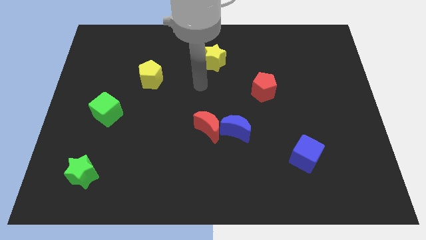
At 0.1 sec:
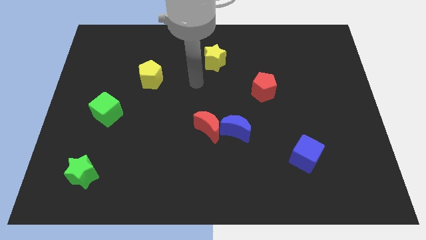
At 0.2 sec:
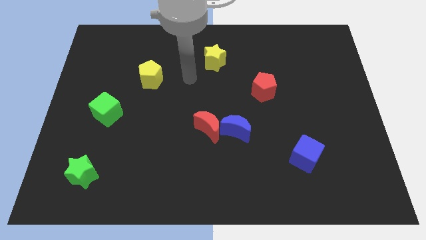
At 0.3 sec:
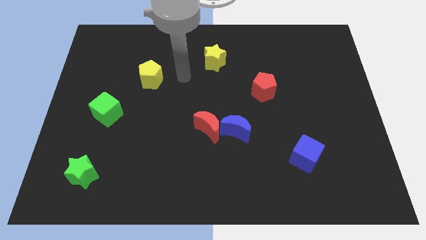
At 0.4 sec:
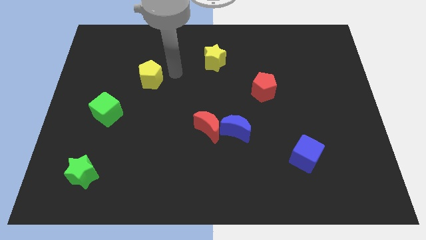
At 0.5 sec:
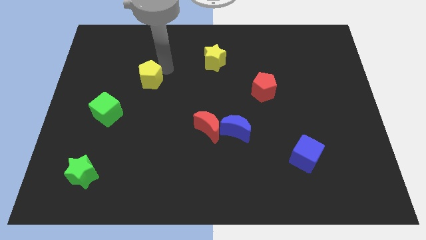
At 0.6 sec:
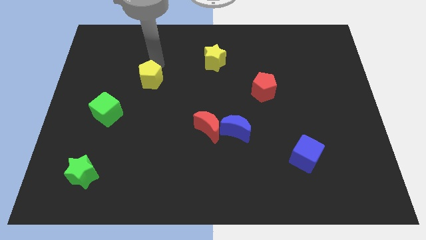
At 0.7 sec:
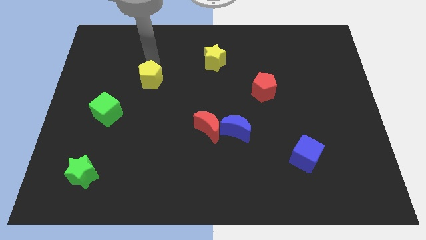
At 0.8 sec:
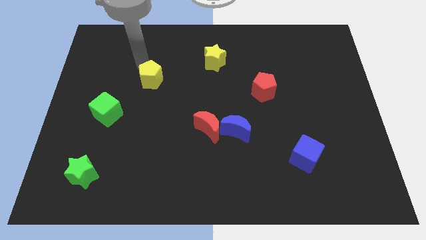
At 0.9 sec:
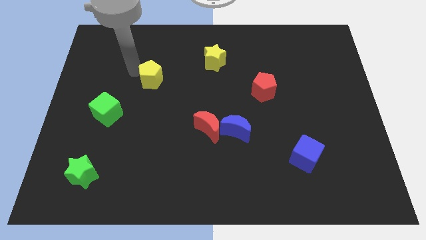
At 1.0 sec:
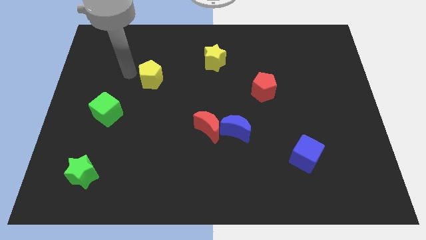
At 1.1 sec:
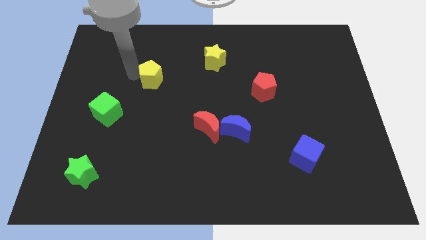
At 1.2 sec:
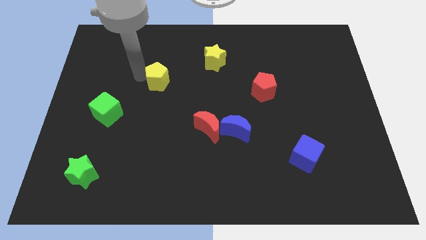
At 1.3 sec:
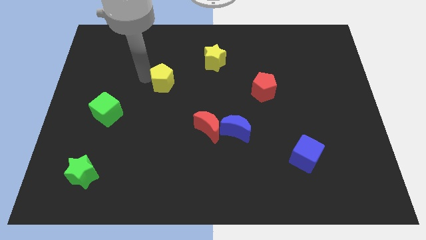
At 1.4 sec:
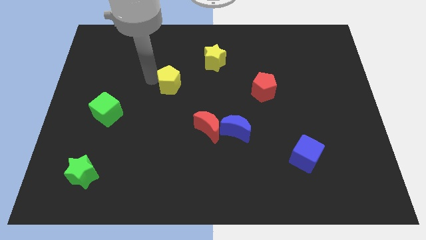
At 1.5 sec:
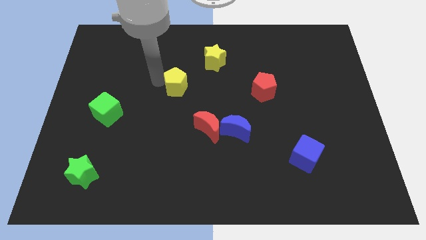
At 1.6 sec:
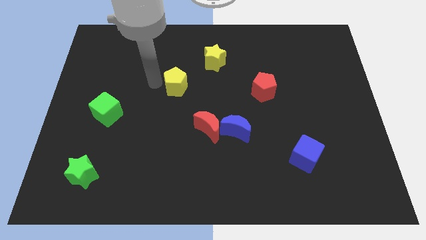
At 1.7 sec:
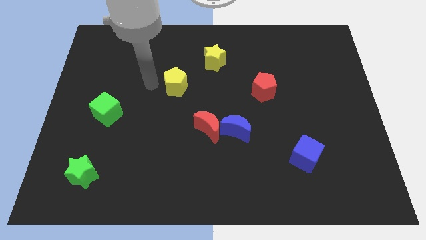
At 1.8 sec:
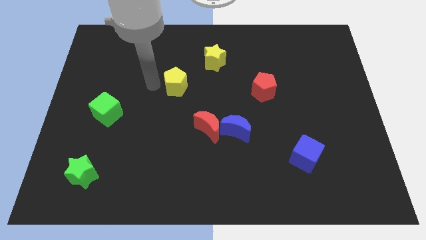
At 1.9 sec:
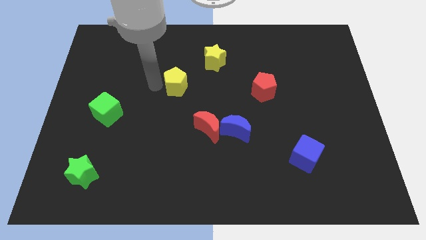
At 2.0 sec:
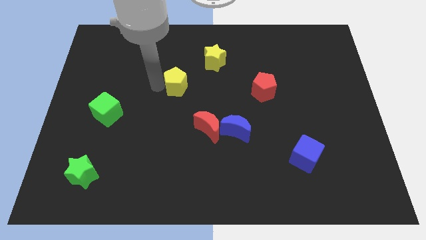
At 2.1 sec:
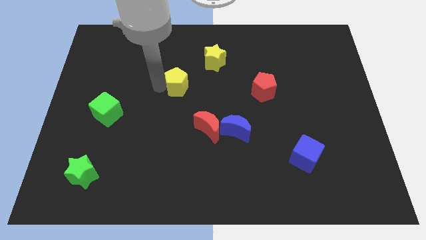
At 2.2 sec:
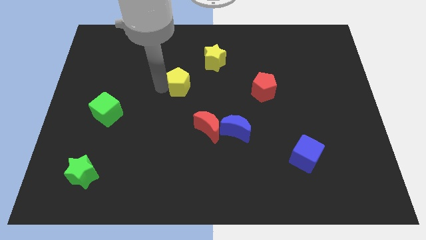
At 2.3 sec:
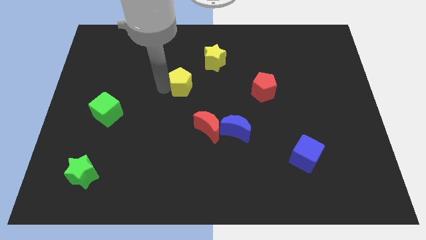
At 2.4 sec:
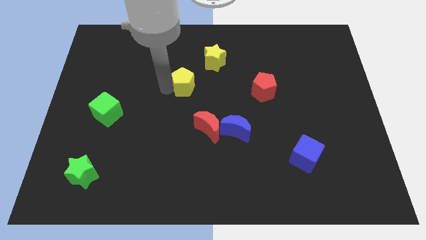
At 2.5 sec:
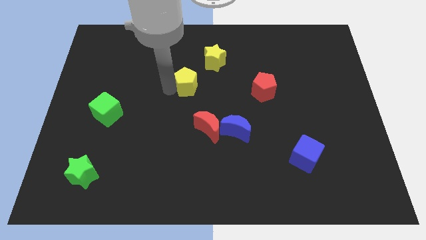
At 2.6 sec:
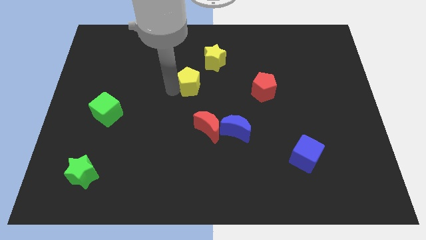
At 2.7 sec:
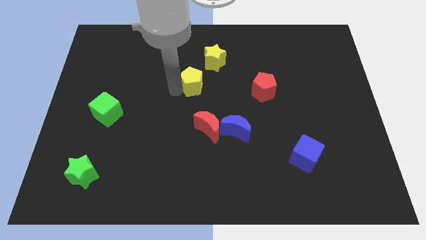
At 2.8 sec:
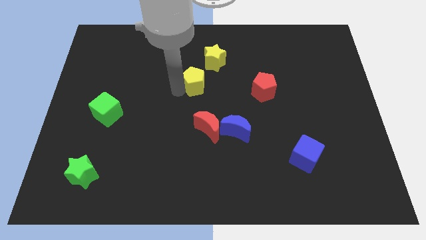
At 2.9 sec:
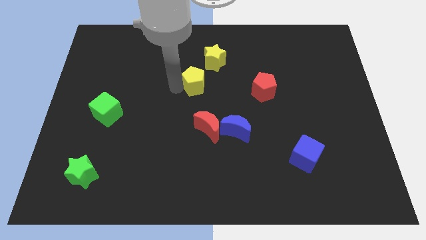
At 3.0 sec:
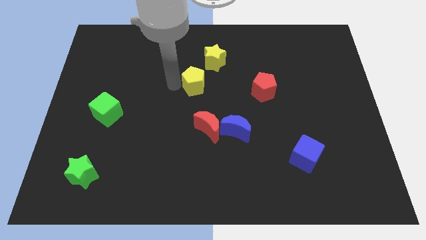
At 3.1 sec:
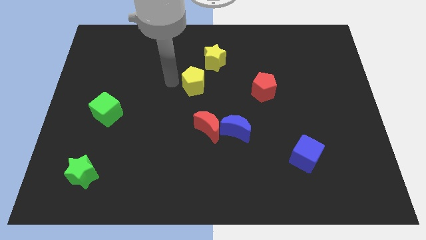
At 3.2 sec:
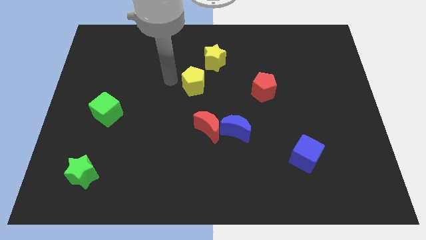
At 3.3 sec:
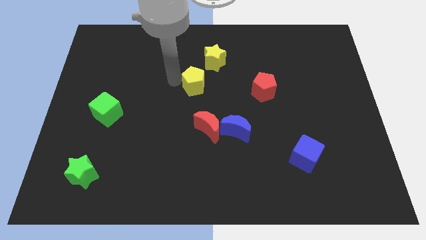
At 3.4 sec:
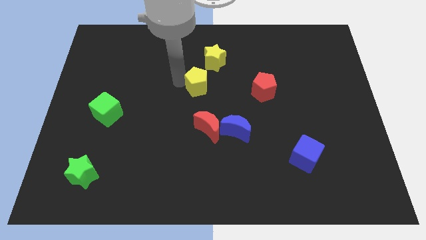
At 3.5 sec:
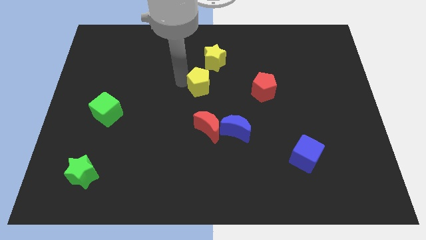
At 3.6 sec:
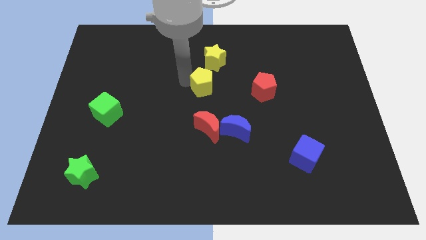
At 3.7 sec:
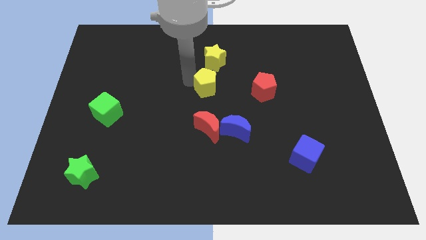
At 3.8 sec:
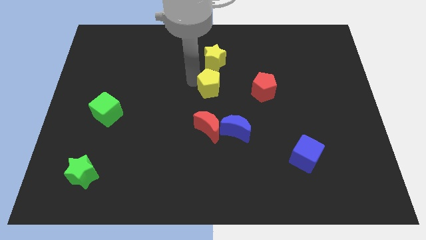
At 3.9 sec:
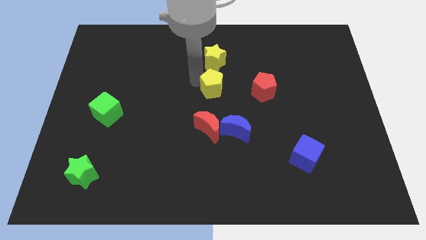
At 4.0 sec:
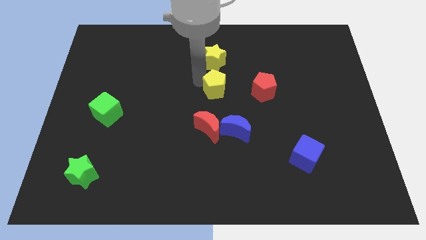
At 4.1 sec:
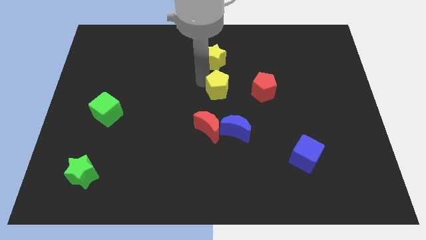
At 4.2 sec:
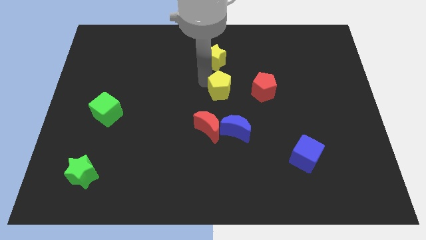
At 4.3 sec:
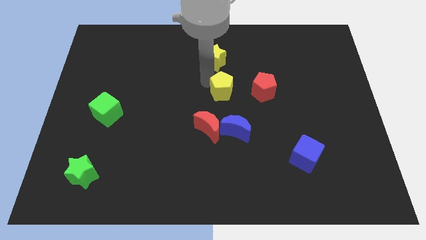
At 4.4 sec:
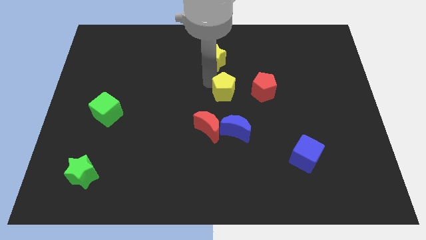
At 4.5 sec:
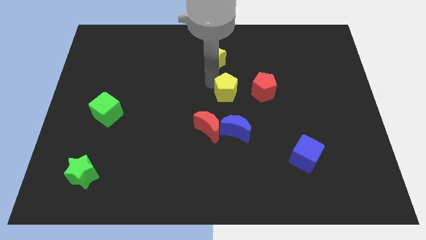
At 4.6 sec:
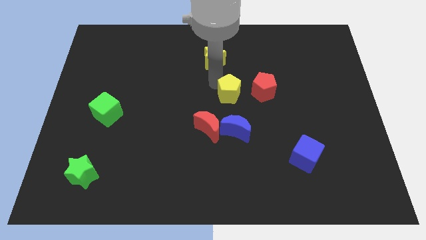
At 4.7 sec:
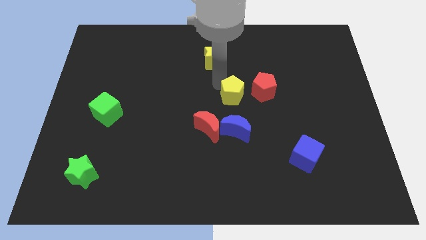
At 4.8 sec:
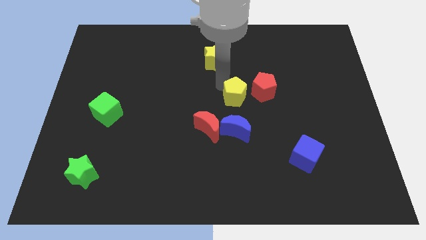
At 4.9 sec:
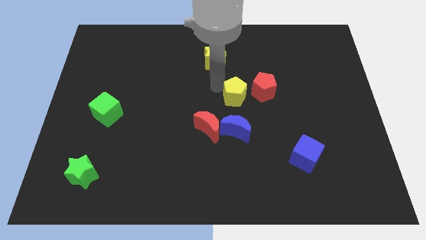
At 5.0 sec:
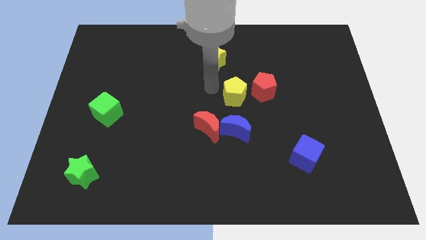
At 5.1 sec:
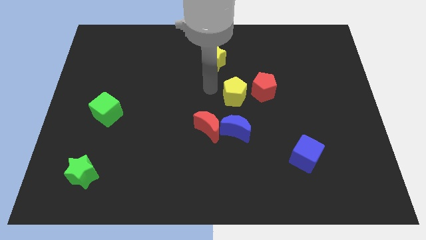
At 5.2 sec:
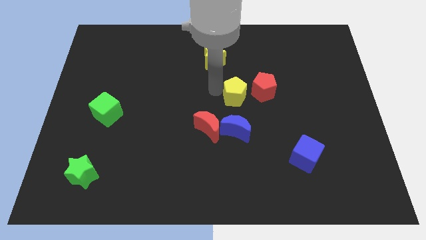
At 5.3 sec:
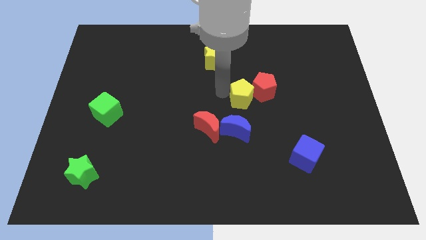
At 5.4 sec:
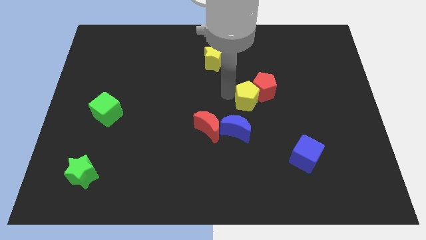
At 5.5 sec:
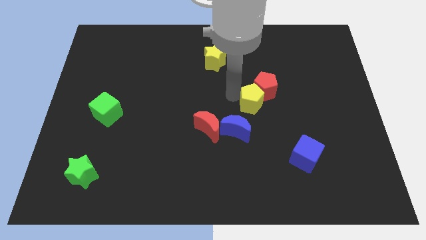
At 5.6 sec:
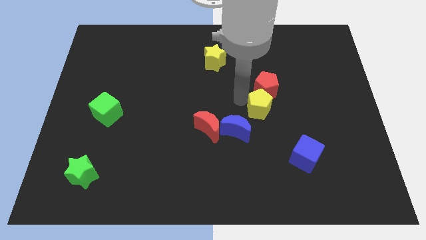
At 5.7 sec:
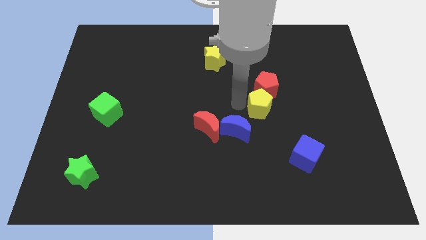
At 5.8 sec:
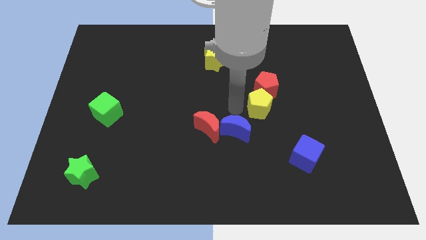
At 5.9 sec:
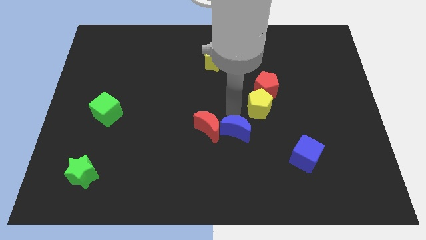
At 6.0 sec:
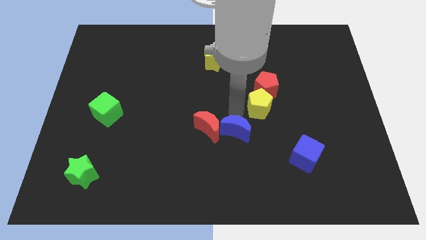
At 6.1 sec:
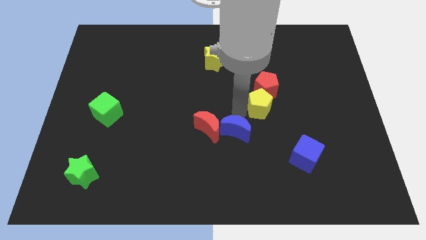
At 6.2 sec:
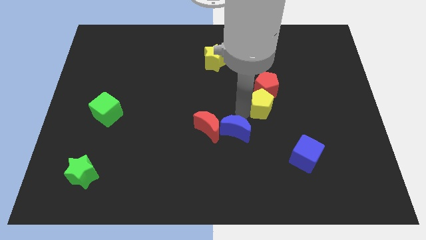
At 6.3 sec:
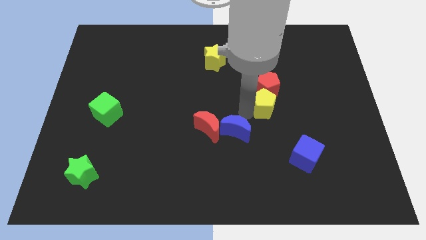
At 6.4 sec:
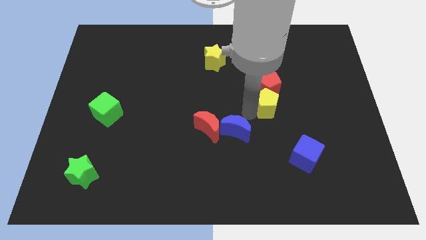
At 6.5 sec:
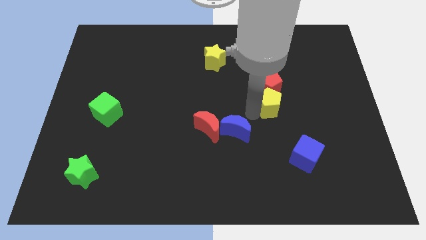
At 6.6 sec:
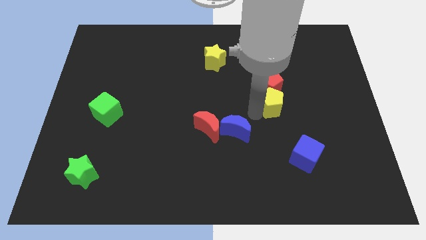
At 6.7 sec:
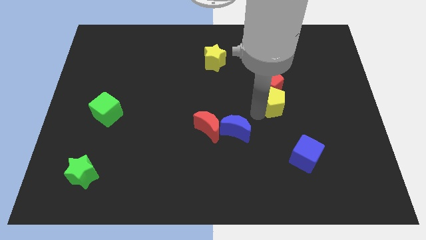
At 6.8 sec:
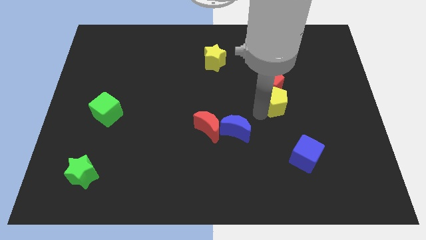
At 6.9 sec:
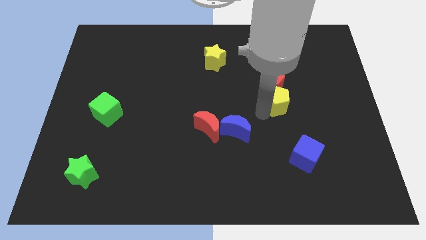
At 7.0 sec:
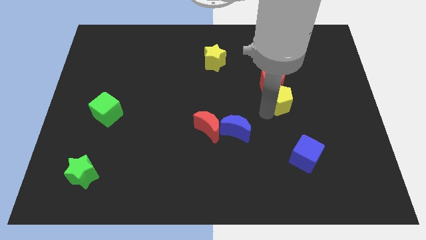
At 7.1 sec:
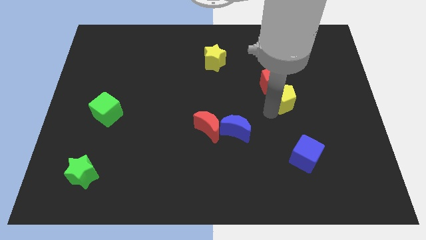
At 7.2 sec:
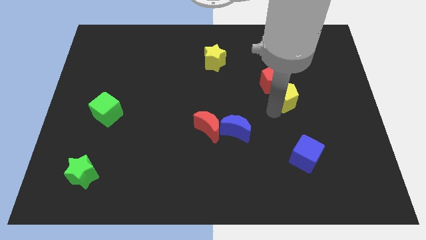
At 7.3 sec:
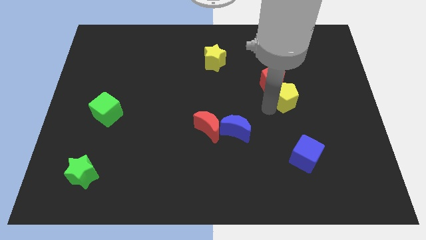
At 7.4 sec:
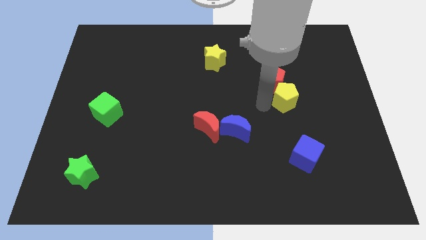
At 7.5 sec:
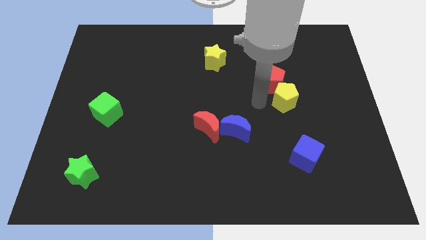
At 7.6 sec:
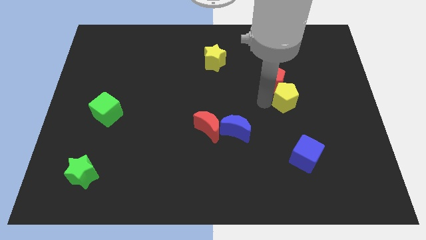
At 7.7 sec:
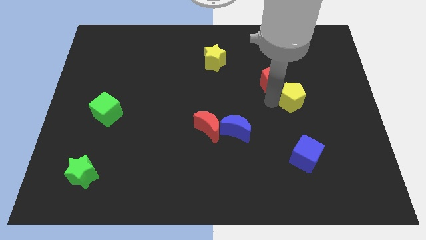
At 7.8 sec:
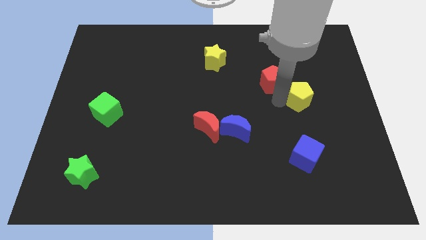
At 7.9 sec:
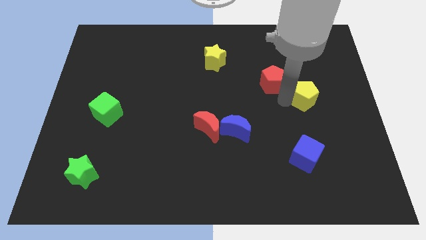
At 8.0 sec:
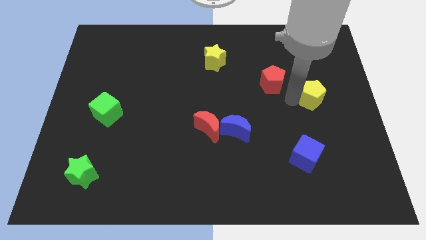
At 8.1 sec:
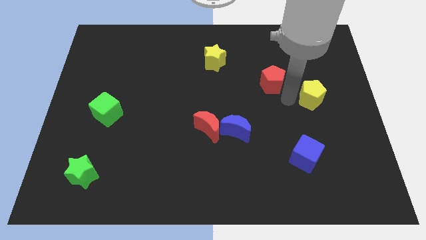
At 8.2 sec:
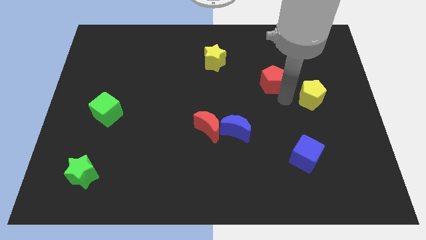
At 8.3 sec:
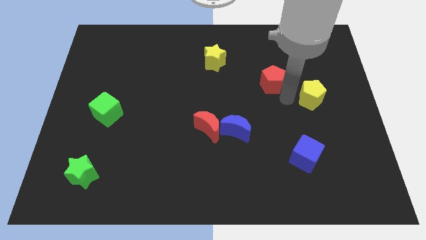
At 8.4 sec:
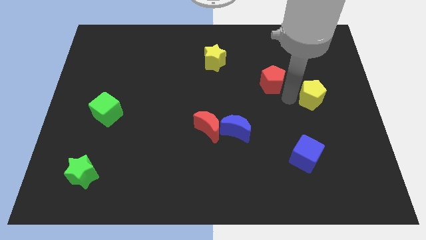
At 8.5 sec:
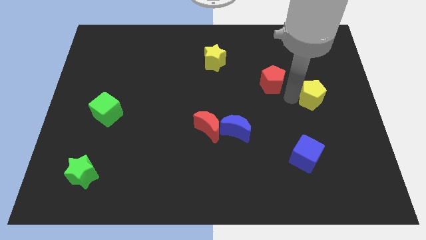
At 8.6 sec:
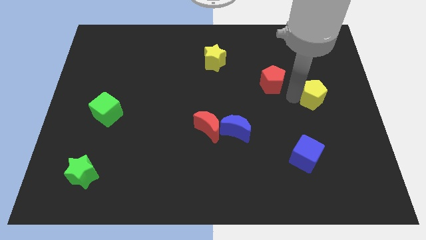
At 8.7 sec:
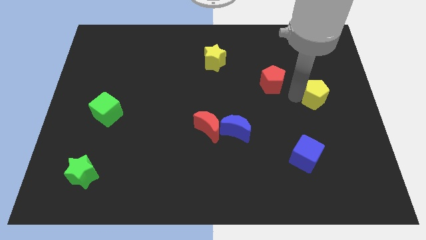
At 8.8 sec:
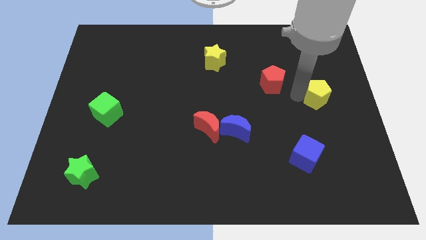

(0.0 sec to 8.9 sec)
move the yellow pentagon to the center right
